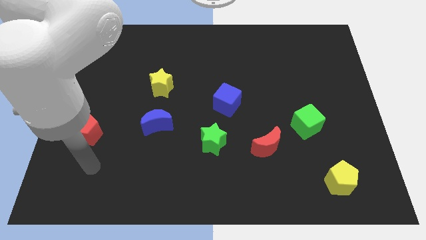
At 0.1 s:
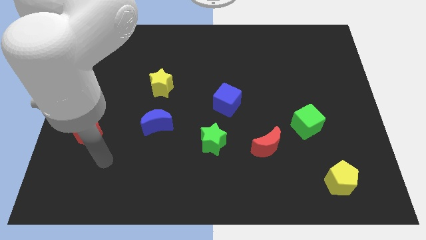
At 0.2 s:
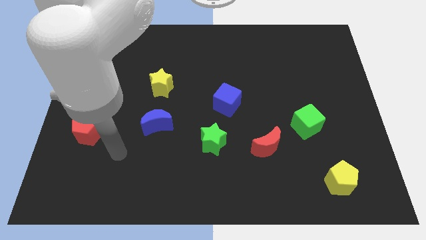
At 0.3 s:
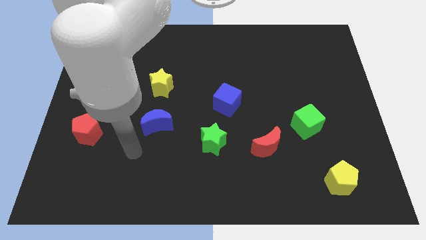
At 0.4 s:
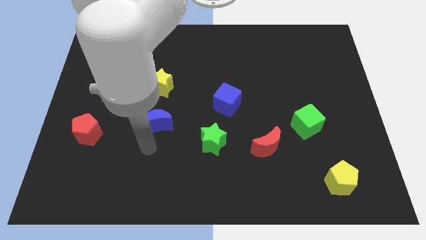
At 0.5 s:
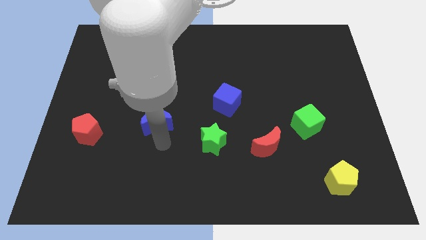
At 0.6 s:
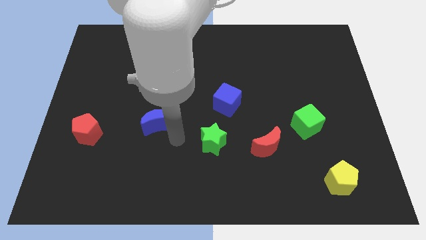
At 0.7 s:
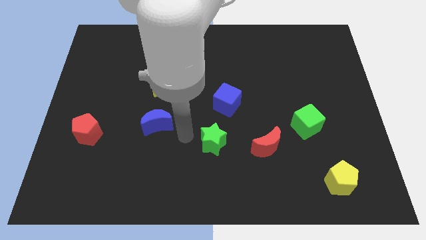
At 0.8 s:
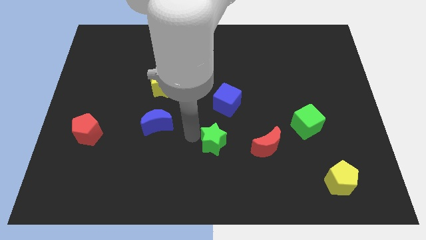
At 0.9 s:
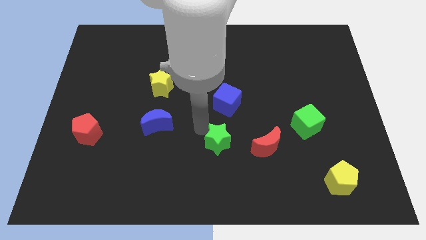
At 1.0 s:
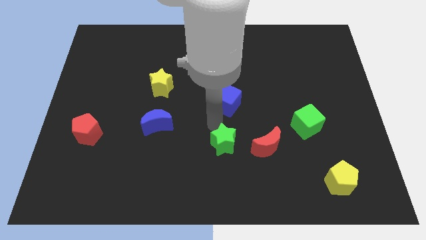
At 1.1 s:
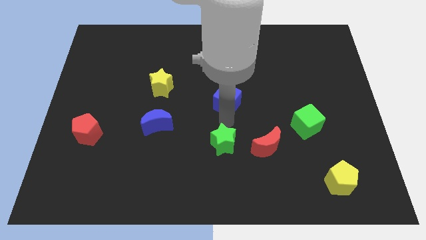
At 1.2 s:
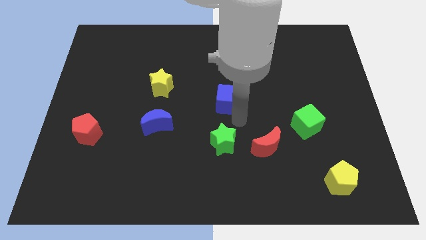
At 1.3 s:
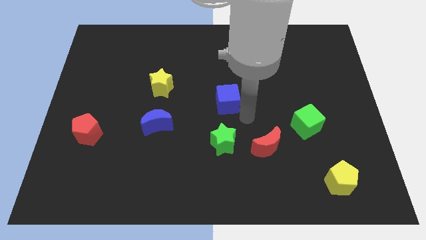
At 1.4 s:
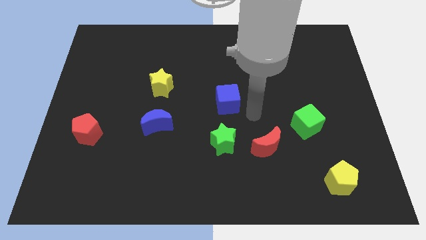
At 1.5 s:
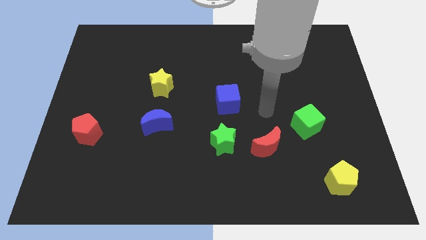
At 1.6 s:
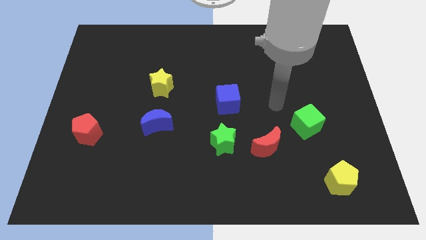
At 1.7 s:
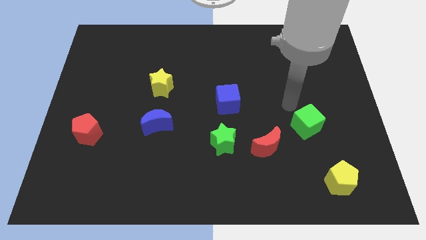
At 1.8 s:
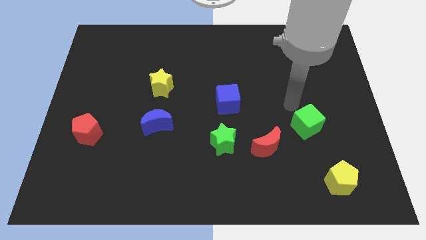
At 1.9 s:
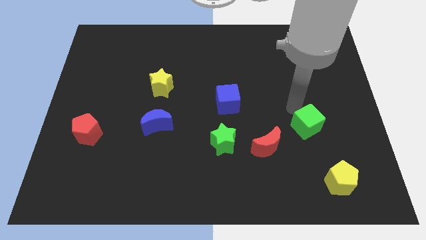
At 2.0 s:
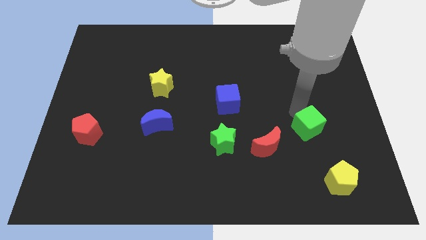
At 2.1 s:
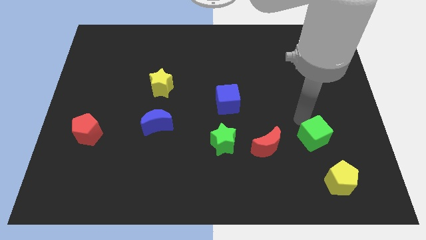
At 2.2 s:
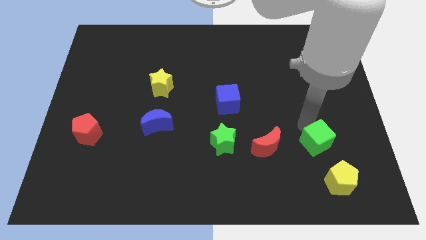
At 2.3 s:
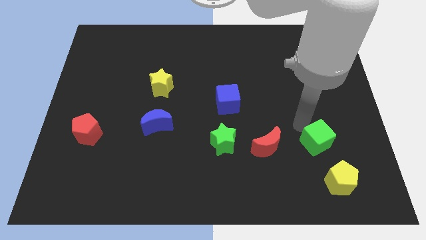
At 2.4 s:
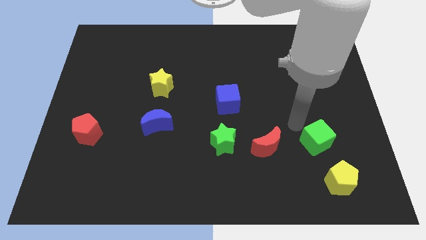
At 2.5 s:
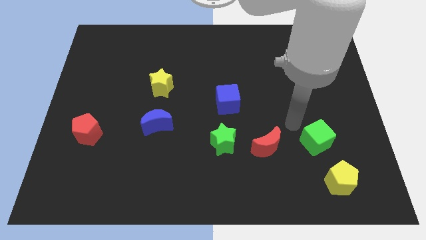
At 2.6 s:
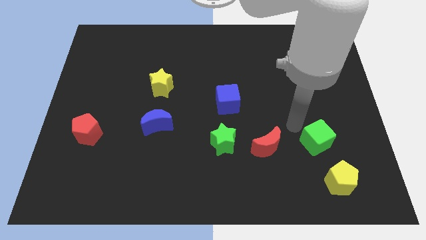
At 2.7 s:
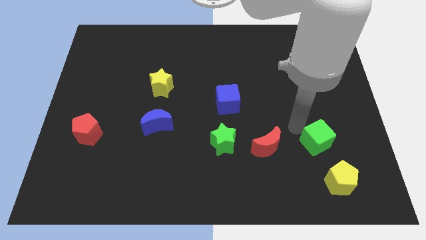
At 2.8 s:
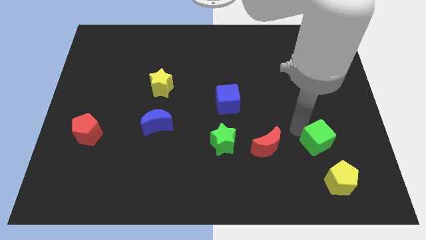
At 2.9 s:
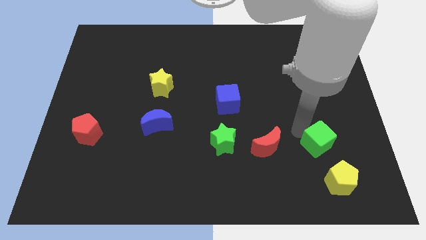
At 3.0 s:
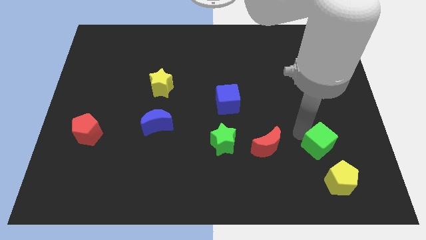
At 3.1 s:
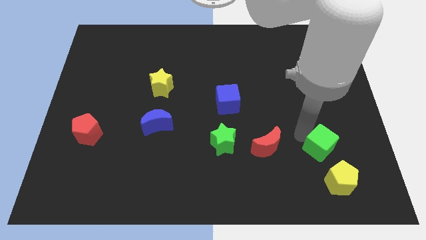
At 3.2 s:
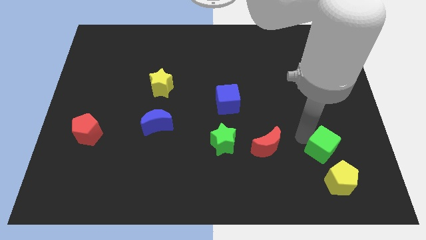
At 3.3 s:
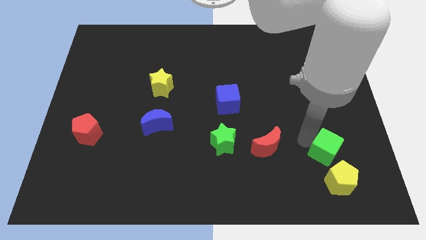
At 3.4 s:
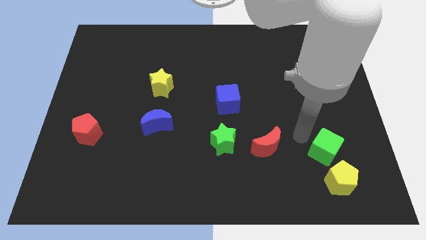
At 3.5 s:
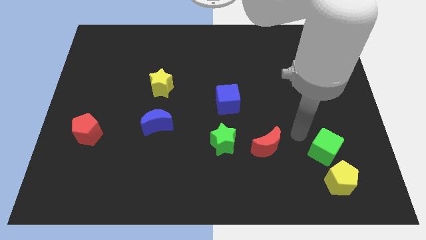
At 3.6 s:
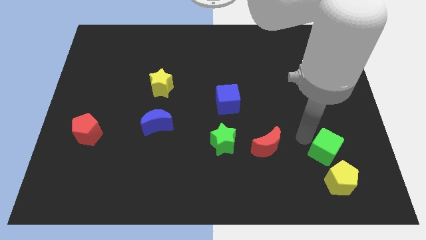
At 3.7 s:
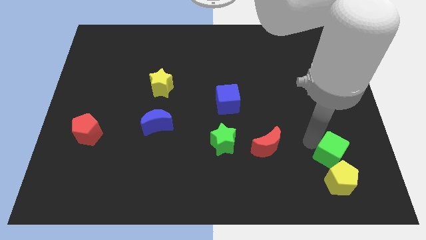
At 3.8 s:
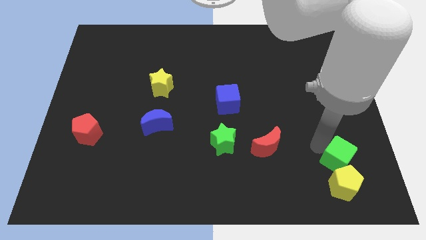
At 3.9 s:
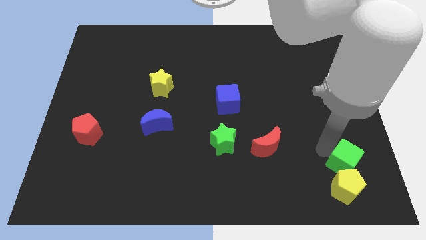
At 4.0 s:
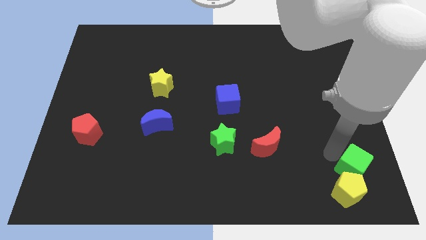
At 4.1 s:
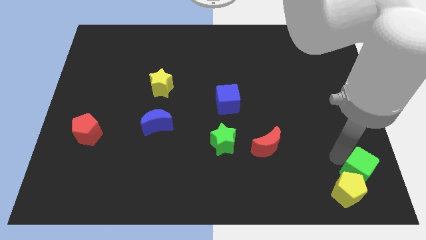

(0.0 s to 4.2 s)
move the green cube to the bottom right

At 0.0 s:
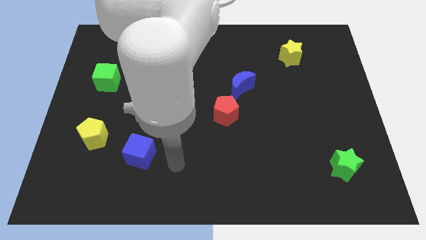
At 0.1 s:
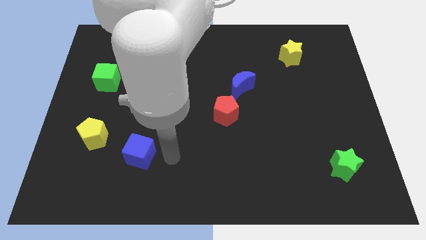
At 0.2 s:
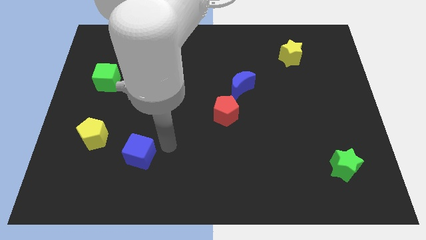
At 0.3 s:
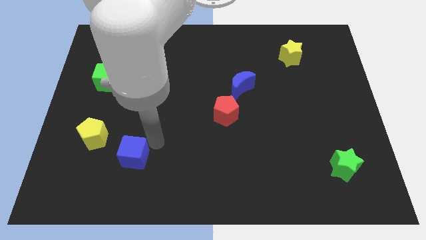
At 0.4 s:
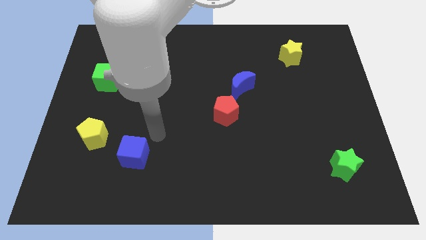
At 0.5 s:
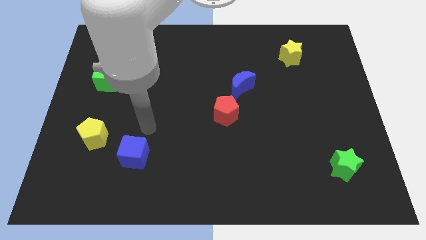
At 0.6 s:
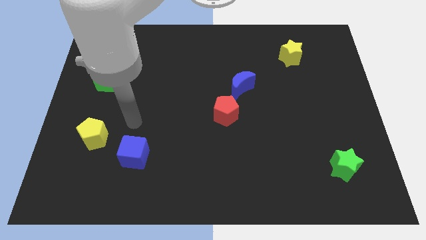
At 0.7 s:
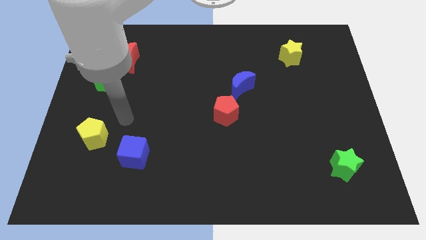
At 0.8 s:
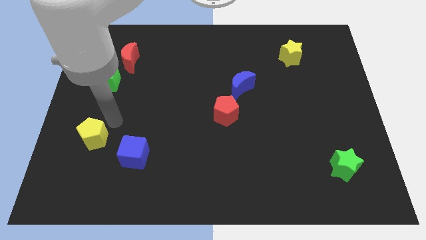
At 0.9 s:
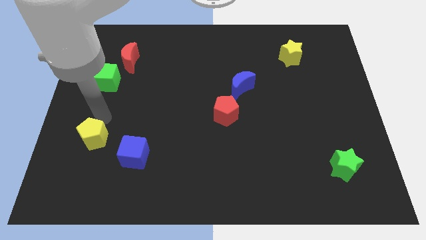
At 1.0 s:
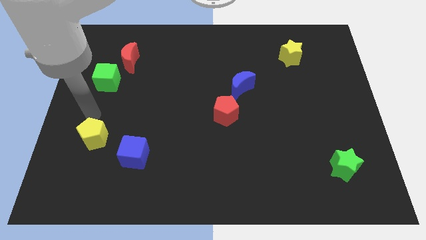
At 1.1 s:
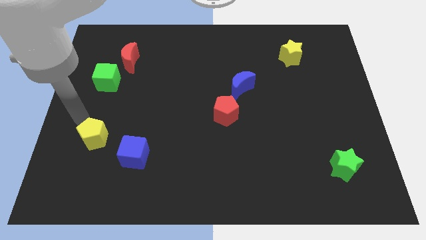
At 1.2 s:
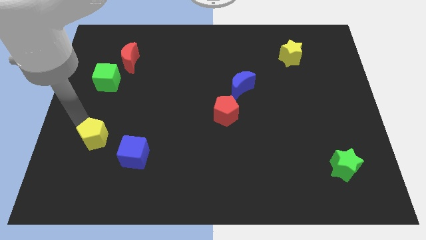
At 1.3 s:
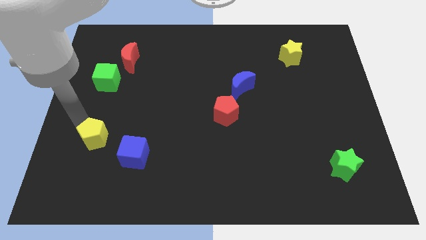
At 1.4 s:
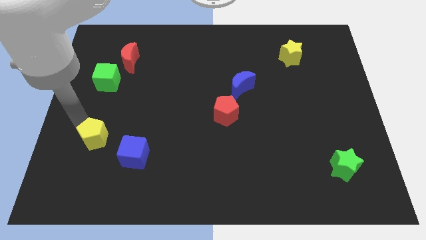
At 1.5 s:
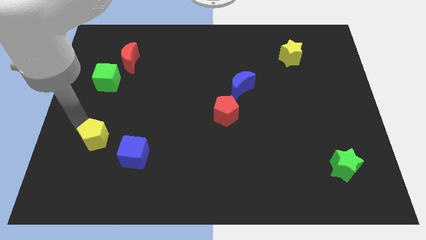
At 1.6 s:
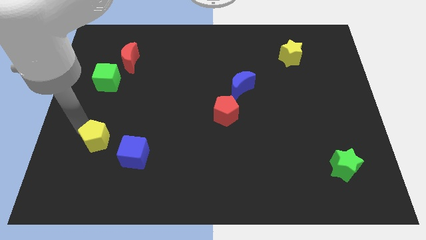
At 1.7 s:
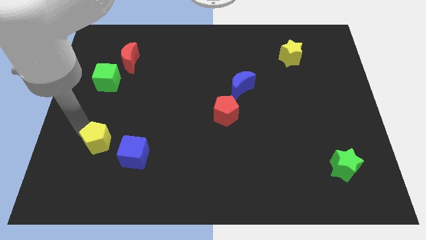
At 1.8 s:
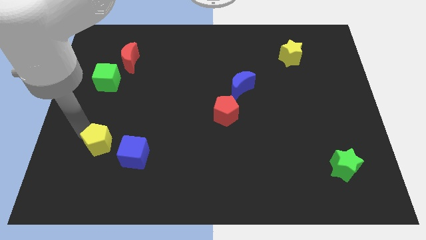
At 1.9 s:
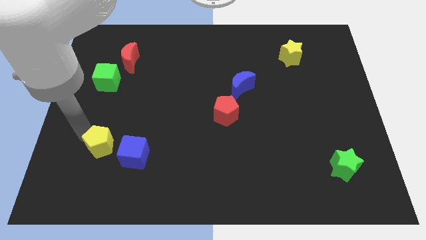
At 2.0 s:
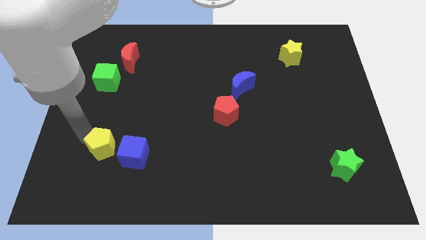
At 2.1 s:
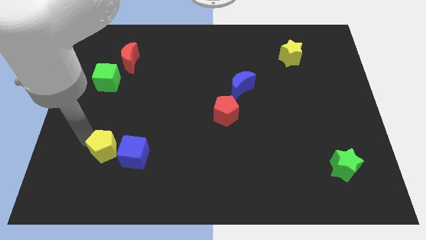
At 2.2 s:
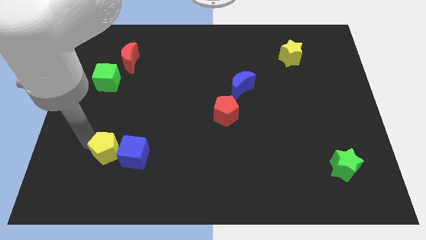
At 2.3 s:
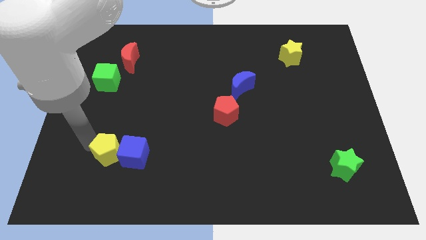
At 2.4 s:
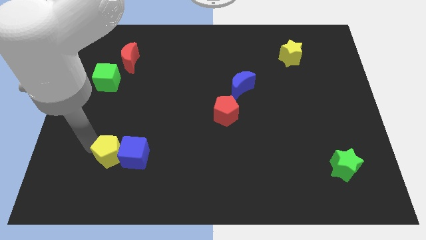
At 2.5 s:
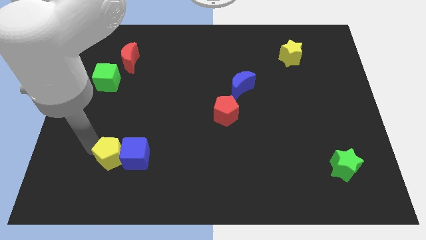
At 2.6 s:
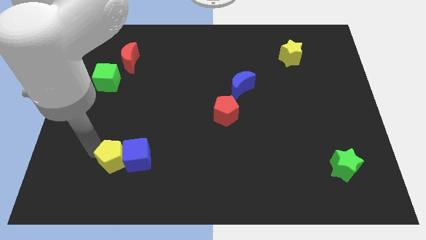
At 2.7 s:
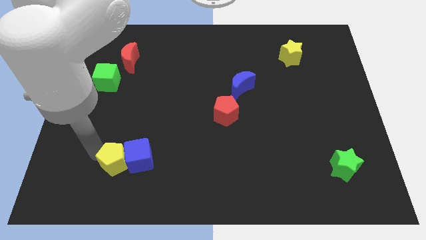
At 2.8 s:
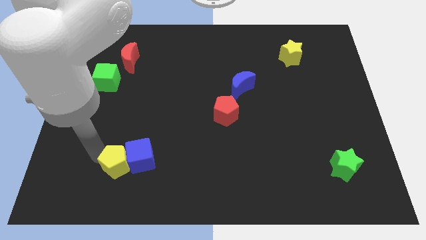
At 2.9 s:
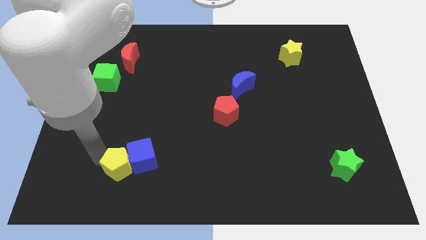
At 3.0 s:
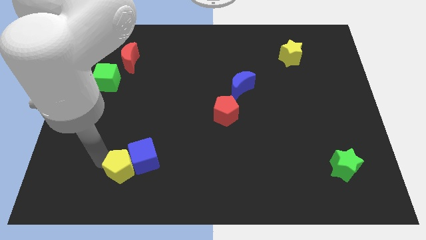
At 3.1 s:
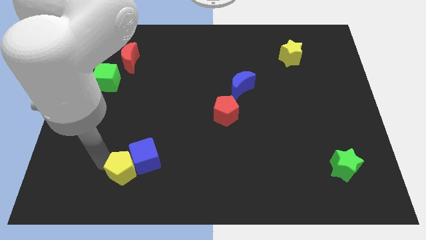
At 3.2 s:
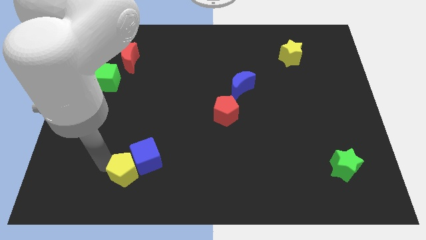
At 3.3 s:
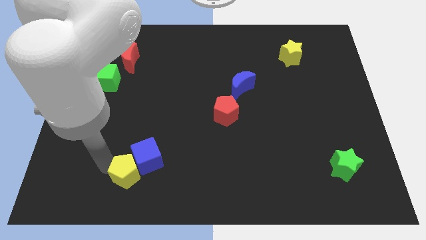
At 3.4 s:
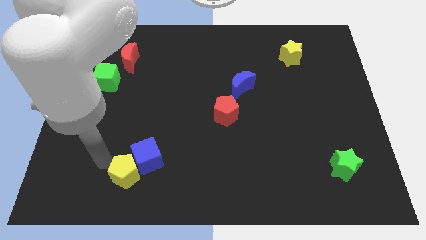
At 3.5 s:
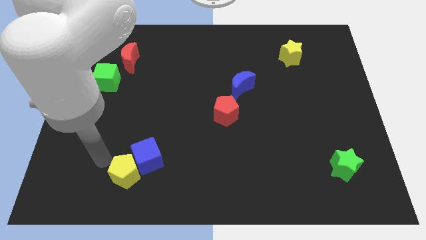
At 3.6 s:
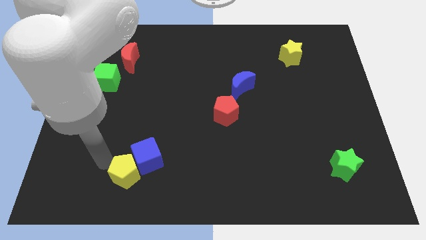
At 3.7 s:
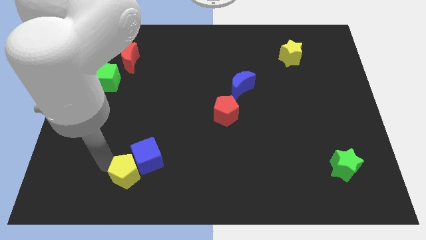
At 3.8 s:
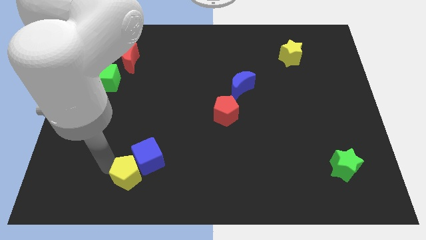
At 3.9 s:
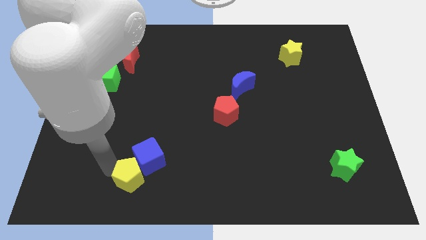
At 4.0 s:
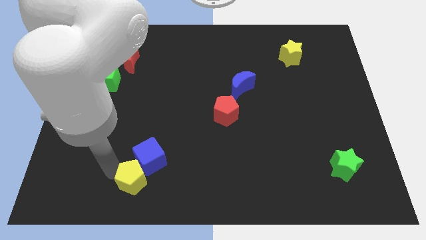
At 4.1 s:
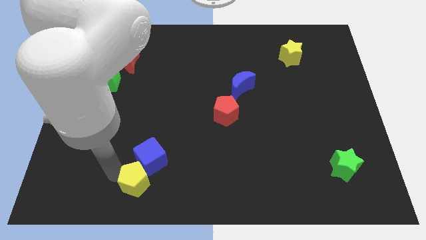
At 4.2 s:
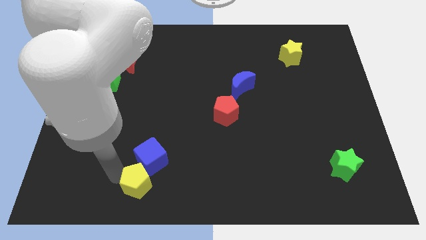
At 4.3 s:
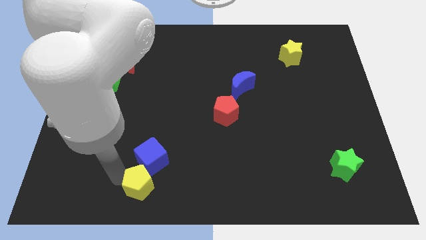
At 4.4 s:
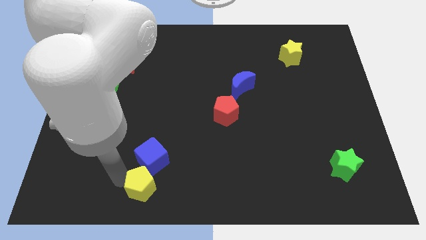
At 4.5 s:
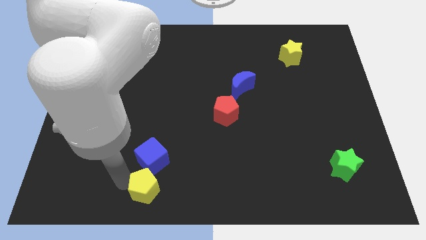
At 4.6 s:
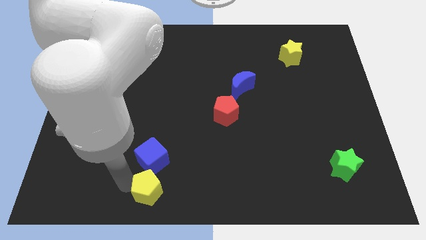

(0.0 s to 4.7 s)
slide the yellow pentagon to the bottom side
